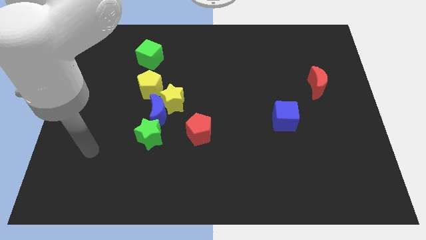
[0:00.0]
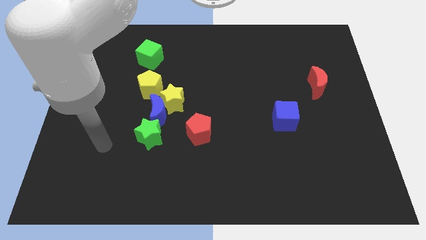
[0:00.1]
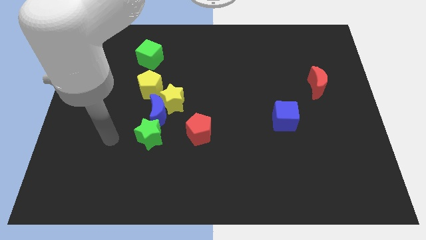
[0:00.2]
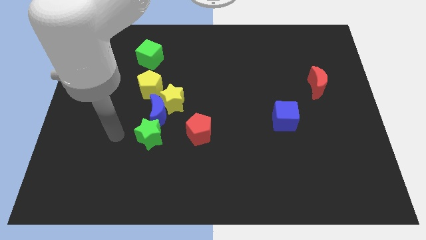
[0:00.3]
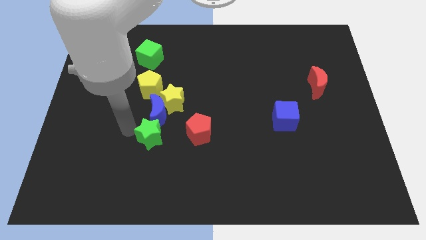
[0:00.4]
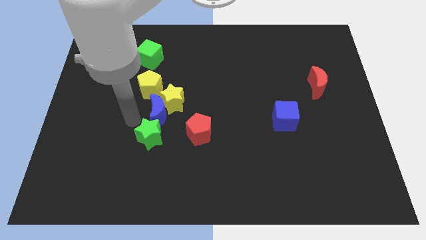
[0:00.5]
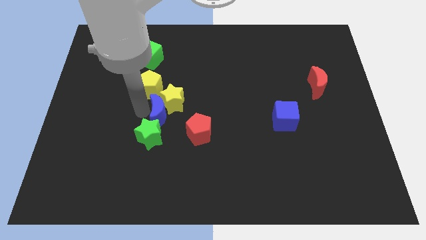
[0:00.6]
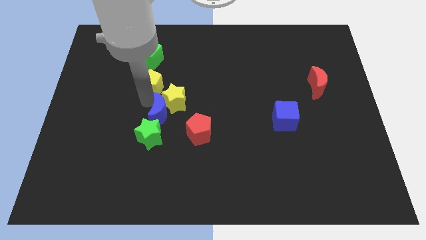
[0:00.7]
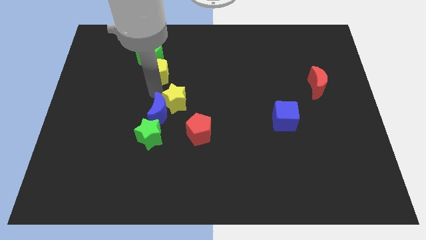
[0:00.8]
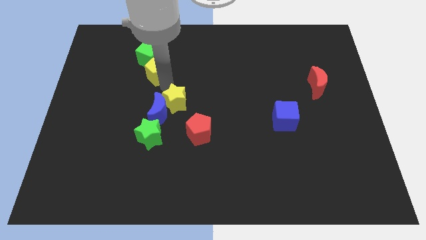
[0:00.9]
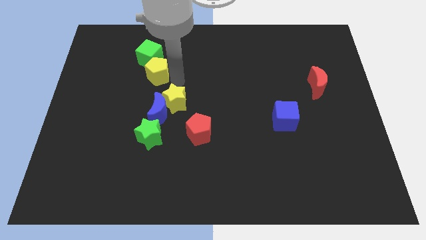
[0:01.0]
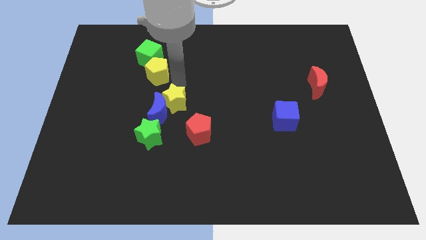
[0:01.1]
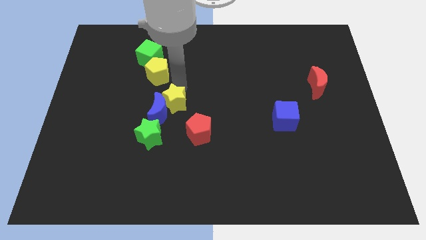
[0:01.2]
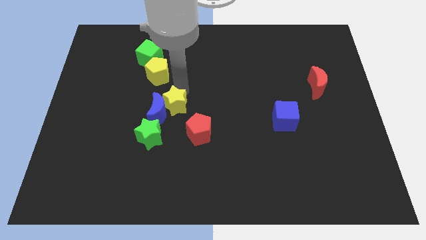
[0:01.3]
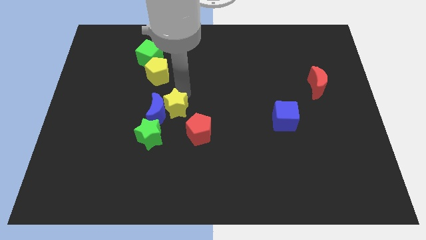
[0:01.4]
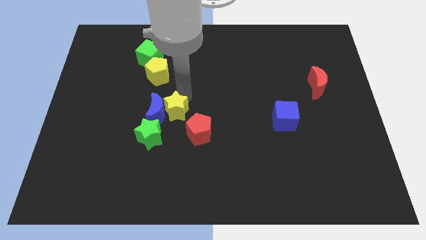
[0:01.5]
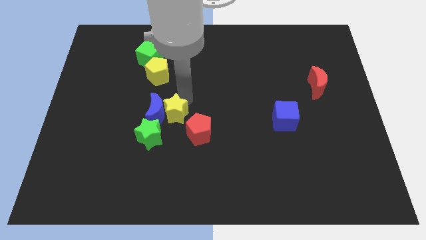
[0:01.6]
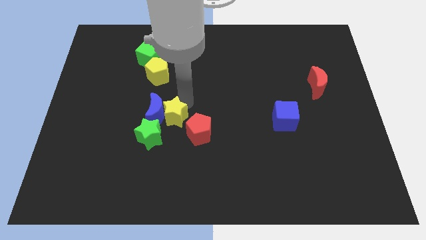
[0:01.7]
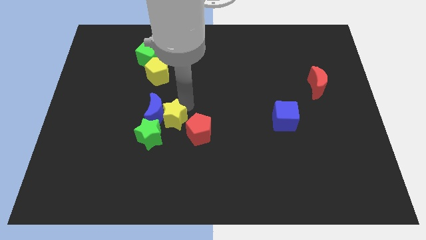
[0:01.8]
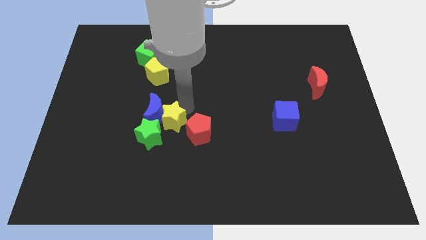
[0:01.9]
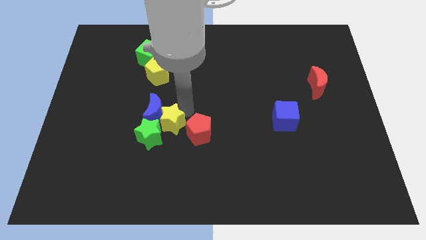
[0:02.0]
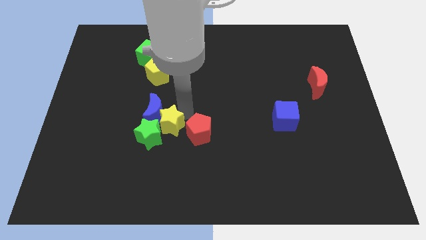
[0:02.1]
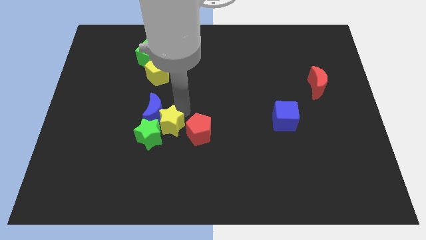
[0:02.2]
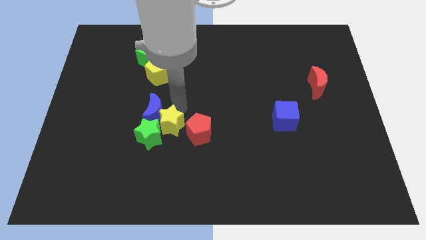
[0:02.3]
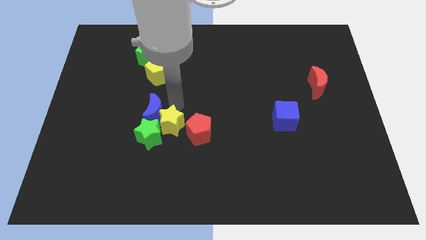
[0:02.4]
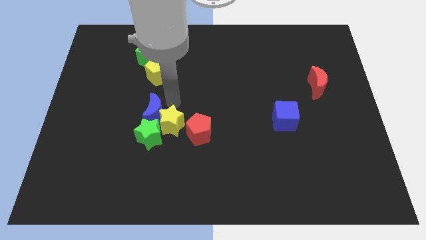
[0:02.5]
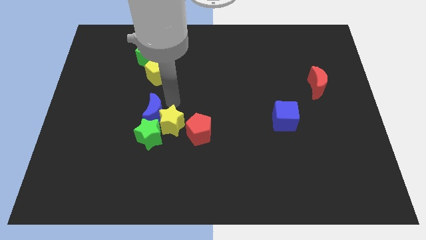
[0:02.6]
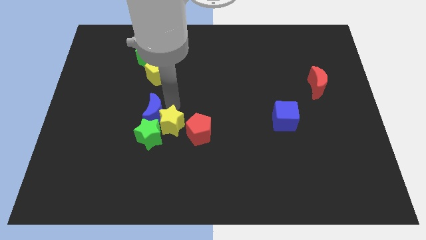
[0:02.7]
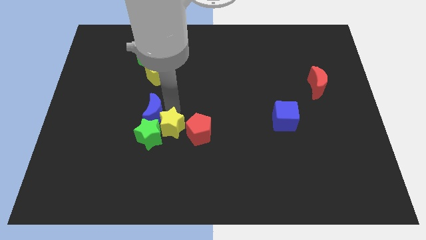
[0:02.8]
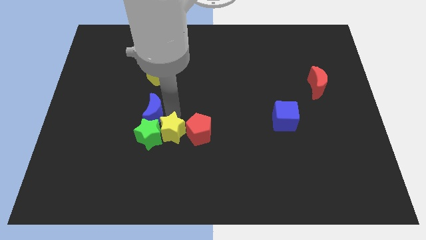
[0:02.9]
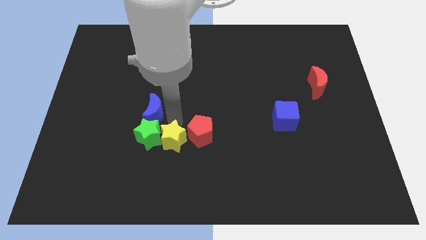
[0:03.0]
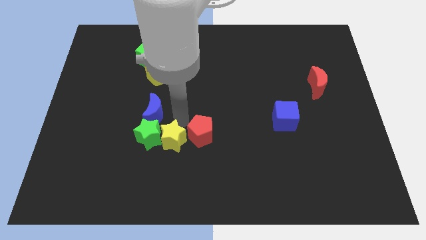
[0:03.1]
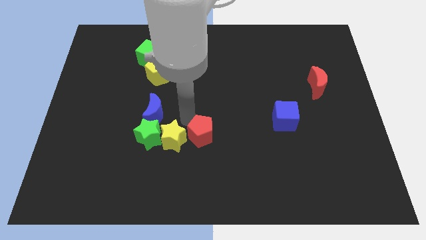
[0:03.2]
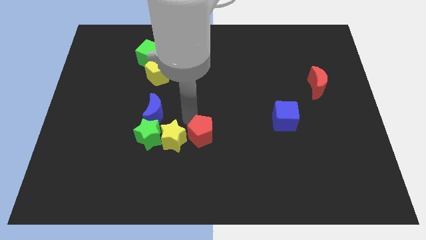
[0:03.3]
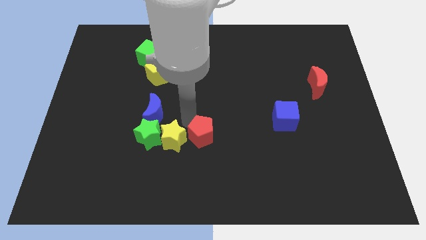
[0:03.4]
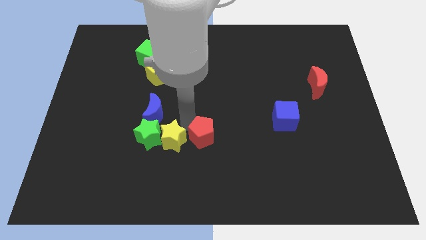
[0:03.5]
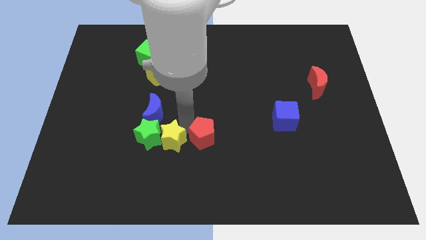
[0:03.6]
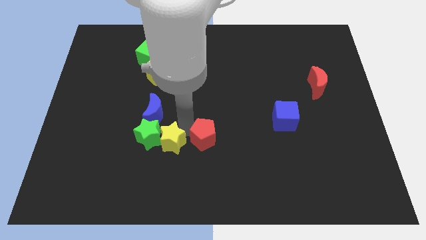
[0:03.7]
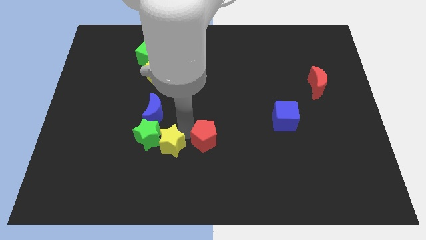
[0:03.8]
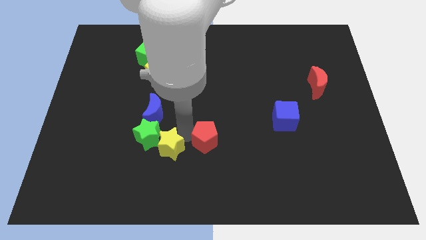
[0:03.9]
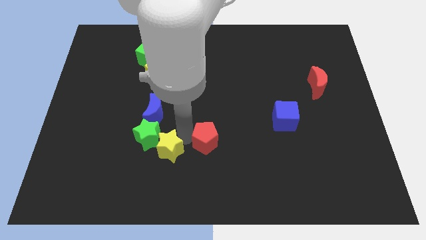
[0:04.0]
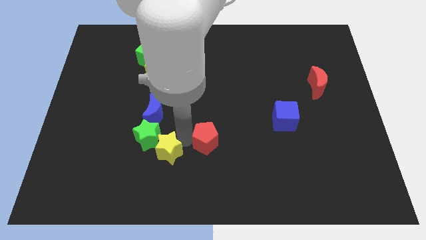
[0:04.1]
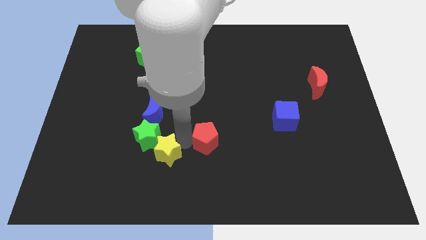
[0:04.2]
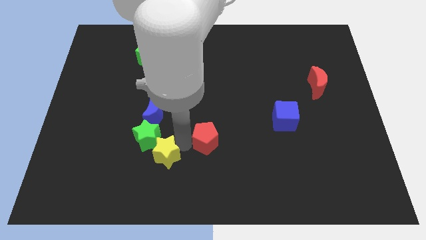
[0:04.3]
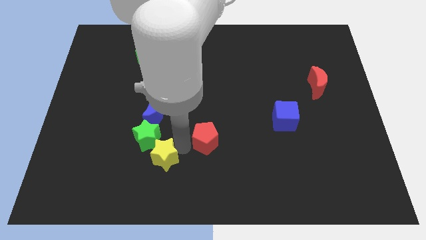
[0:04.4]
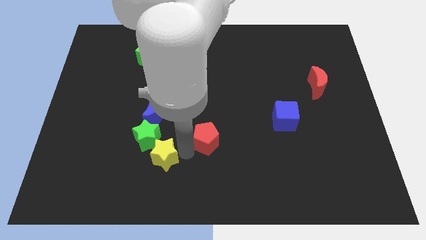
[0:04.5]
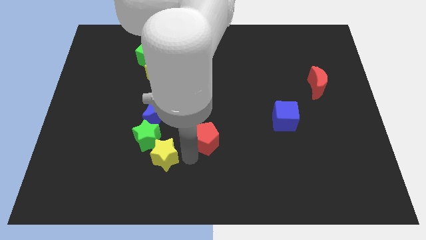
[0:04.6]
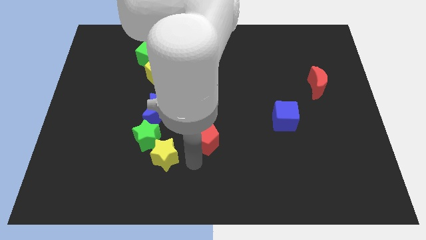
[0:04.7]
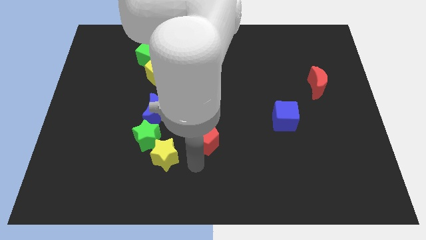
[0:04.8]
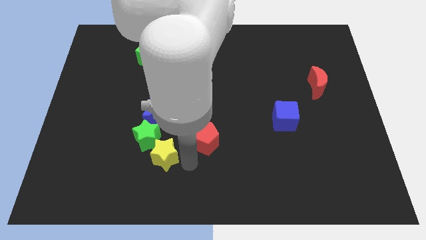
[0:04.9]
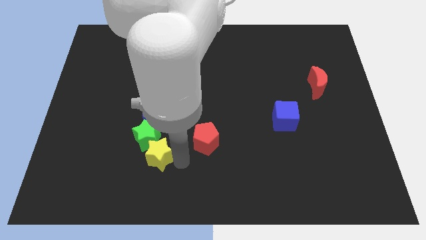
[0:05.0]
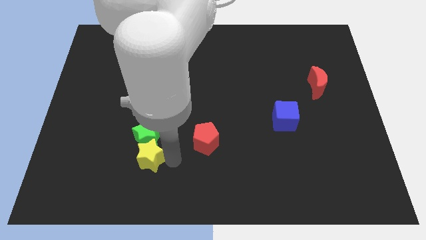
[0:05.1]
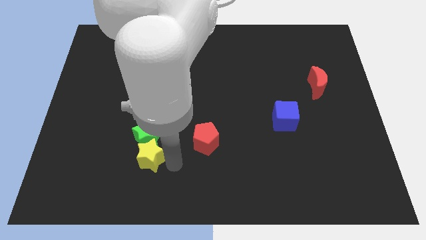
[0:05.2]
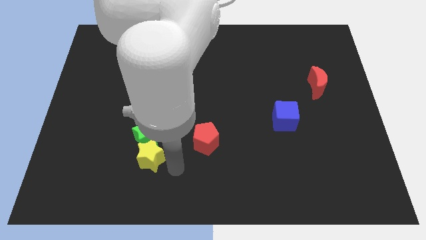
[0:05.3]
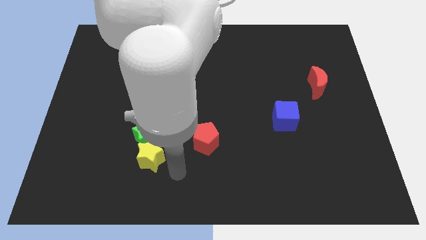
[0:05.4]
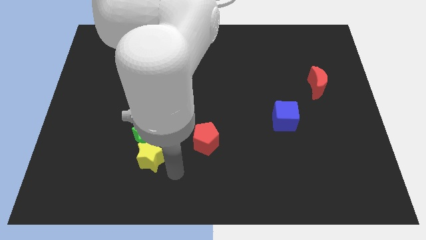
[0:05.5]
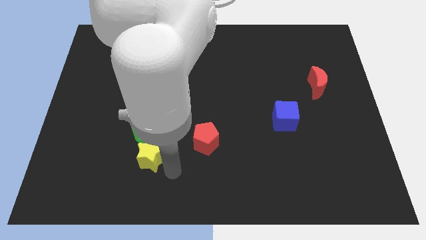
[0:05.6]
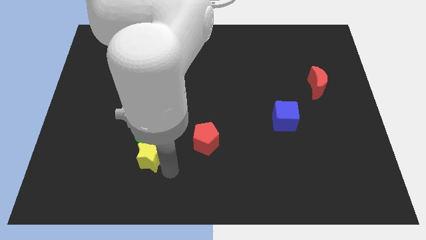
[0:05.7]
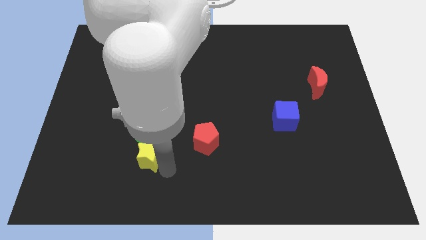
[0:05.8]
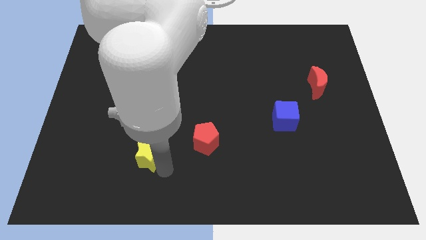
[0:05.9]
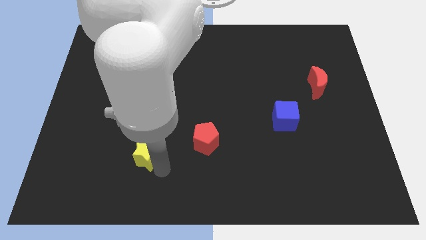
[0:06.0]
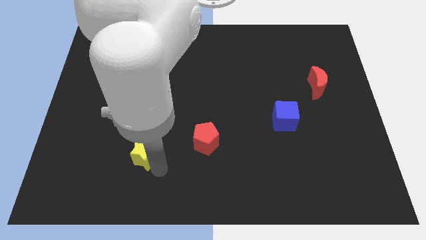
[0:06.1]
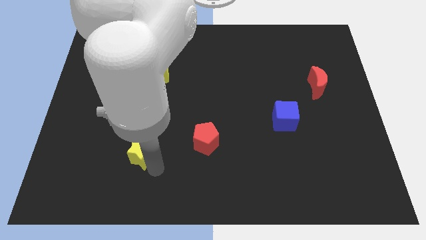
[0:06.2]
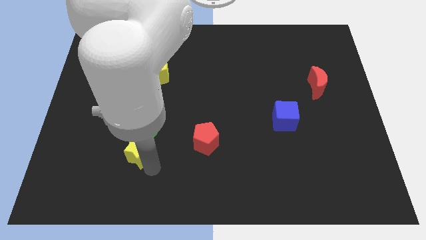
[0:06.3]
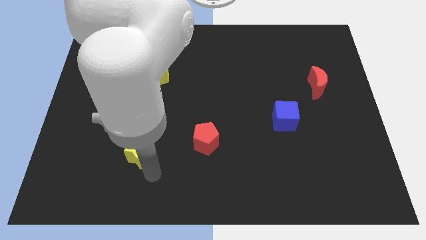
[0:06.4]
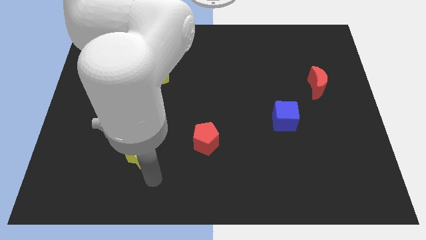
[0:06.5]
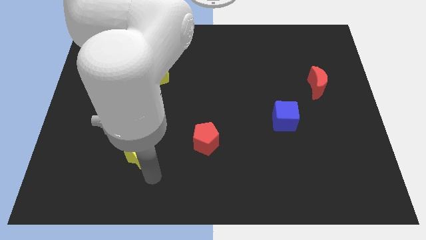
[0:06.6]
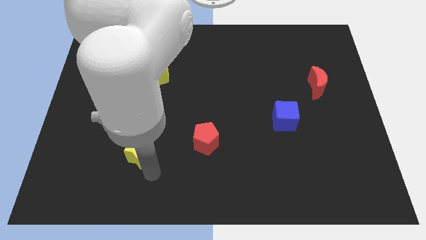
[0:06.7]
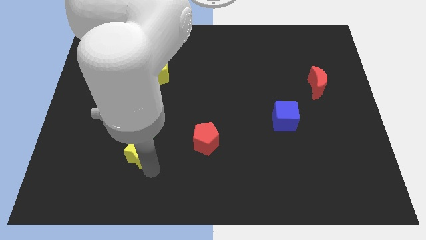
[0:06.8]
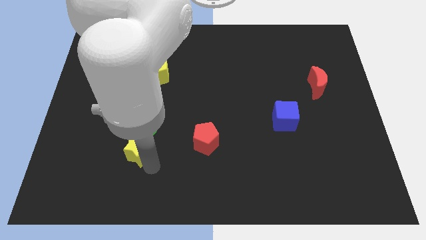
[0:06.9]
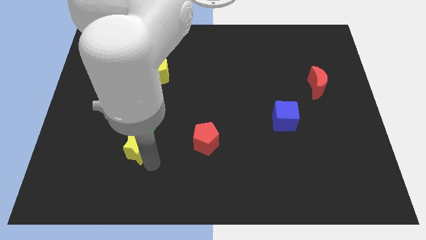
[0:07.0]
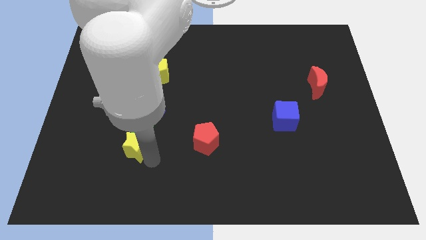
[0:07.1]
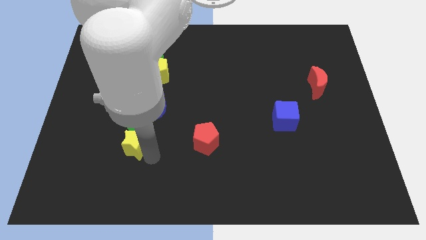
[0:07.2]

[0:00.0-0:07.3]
put the yellow star diagonally down and to the left of the blue moon
